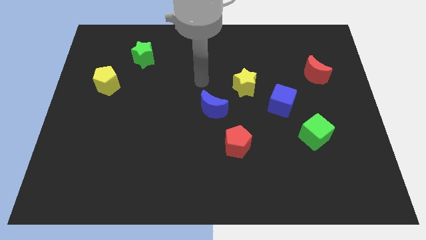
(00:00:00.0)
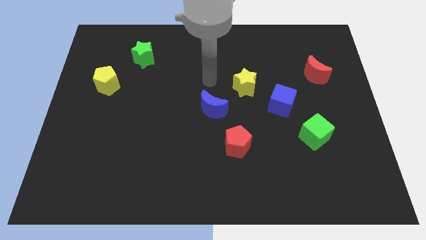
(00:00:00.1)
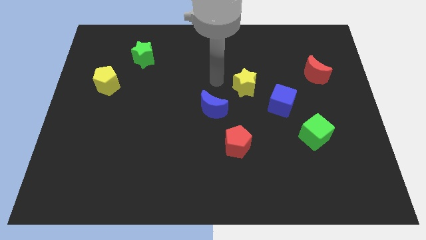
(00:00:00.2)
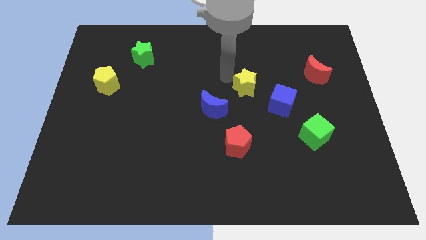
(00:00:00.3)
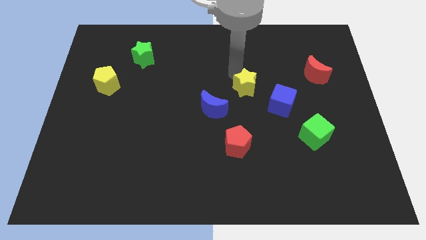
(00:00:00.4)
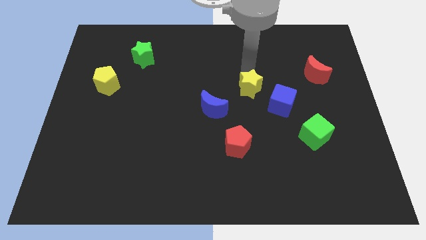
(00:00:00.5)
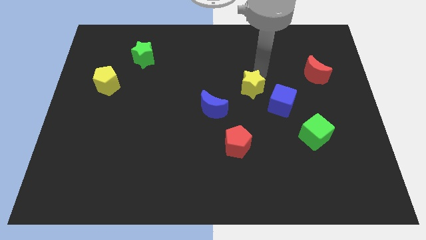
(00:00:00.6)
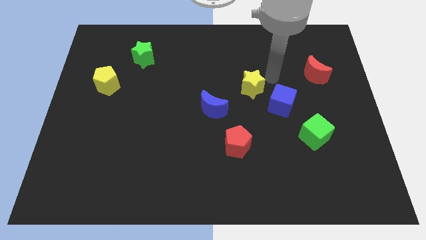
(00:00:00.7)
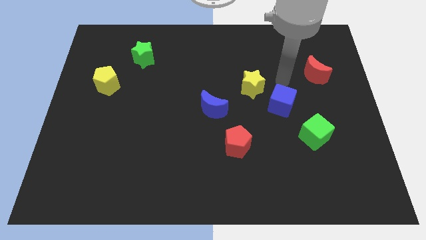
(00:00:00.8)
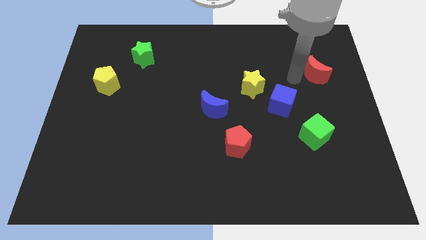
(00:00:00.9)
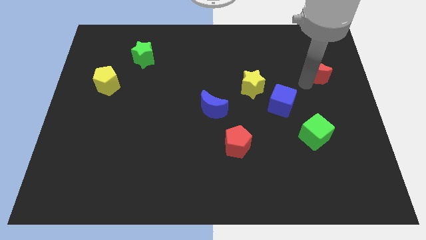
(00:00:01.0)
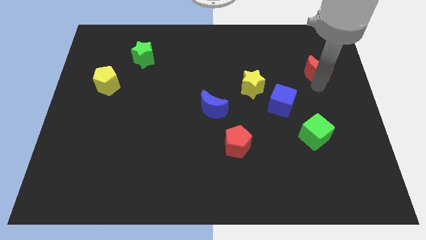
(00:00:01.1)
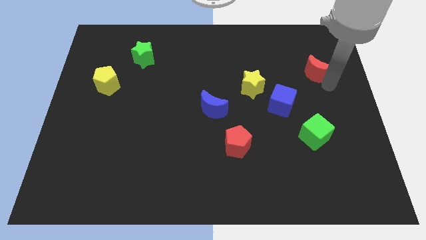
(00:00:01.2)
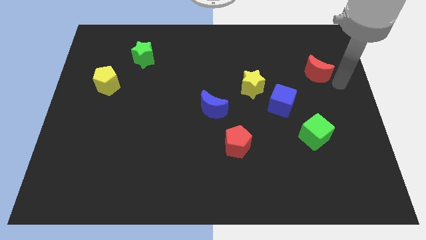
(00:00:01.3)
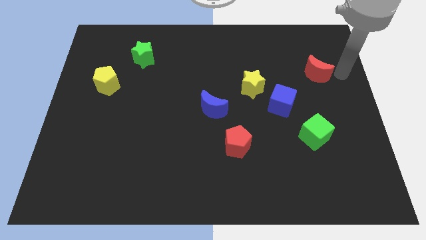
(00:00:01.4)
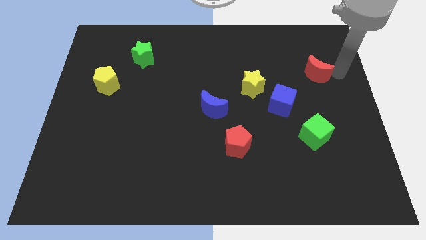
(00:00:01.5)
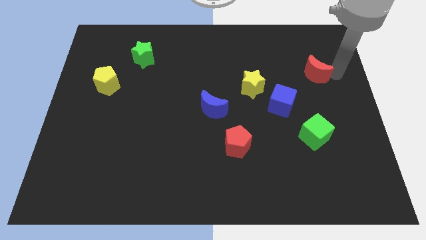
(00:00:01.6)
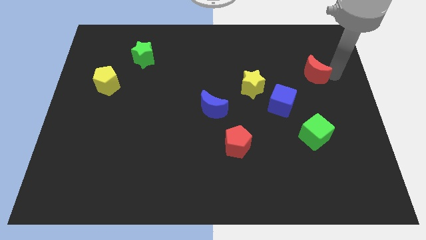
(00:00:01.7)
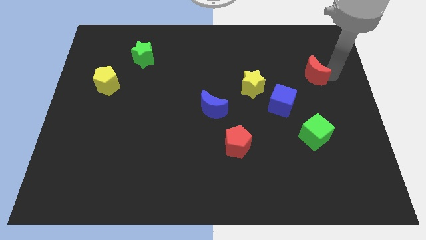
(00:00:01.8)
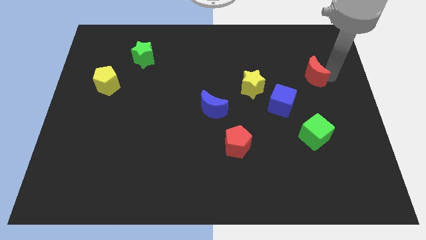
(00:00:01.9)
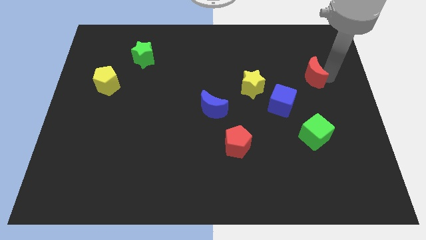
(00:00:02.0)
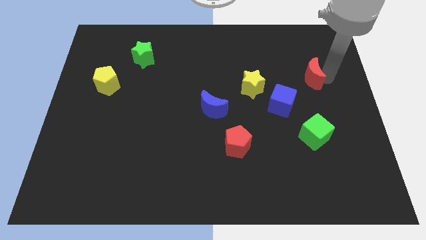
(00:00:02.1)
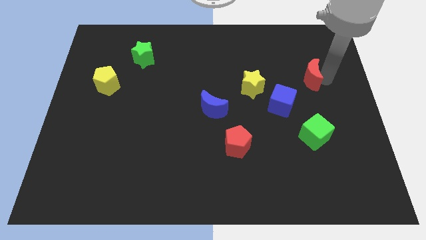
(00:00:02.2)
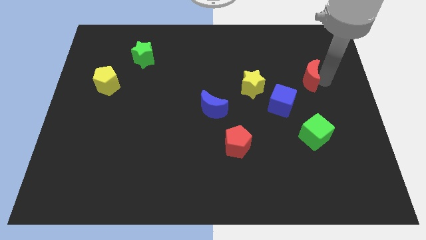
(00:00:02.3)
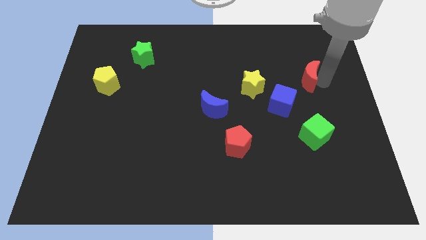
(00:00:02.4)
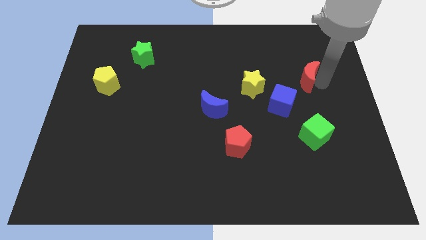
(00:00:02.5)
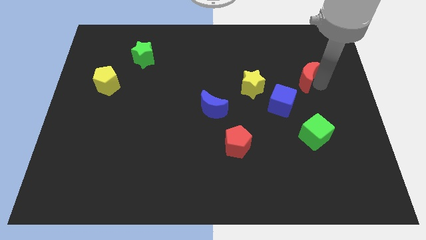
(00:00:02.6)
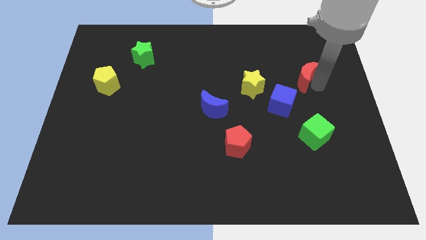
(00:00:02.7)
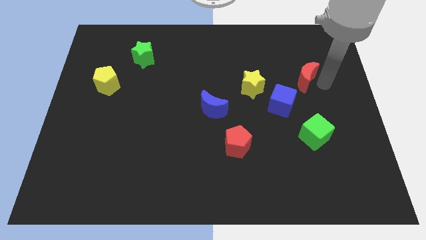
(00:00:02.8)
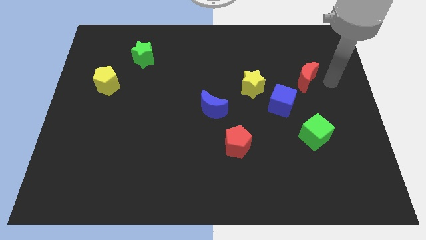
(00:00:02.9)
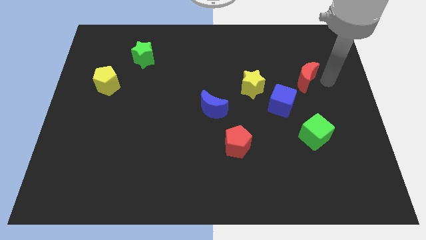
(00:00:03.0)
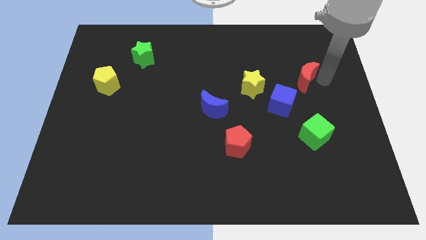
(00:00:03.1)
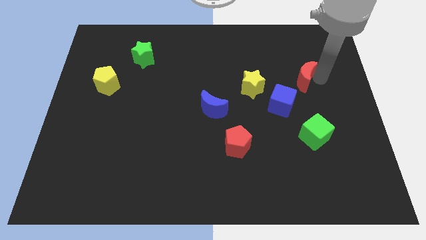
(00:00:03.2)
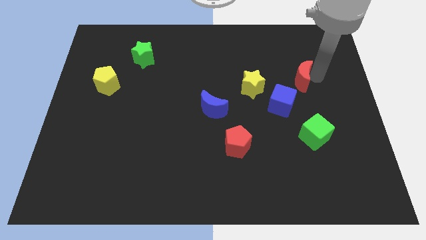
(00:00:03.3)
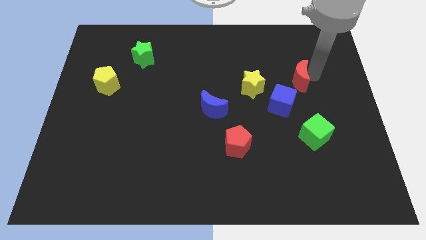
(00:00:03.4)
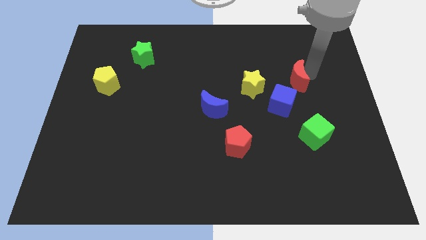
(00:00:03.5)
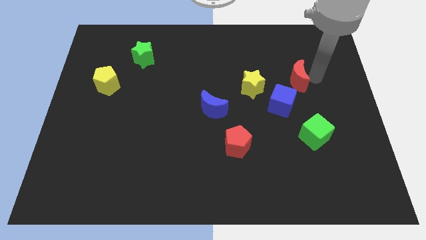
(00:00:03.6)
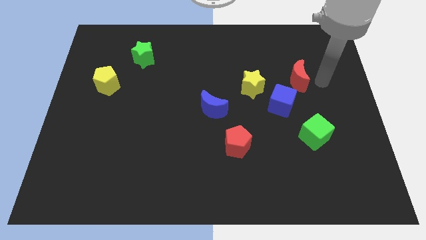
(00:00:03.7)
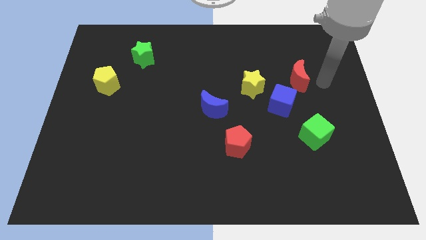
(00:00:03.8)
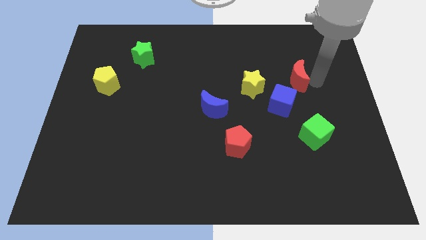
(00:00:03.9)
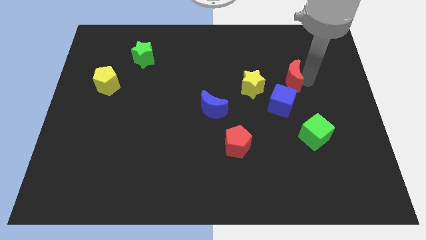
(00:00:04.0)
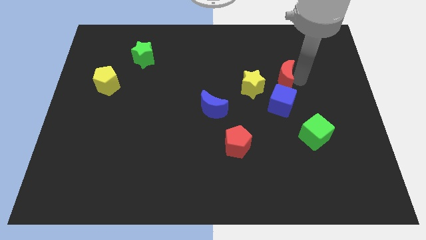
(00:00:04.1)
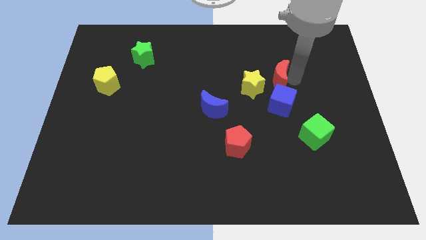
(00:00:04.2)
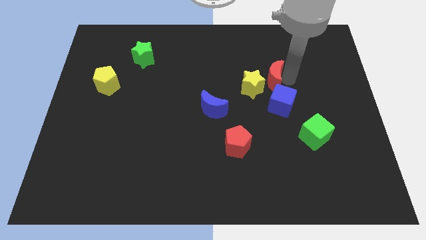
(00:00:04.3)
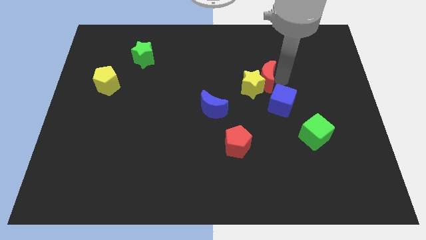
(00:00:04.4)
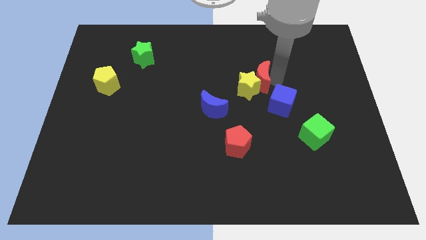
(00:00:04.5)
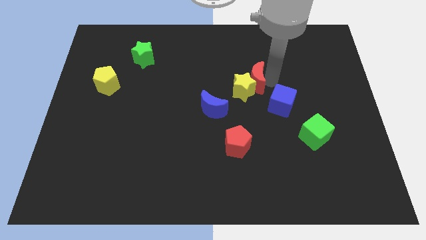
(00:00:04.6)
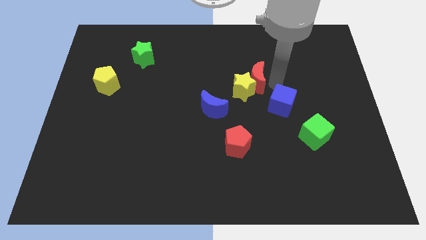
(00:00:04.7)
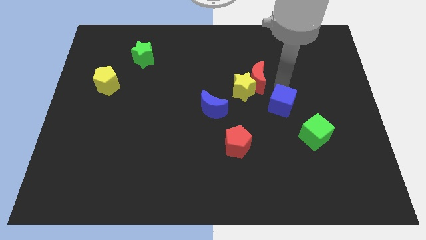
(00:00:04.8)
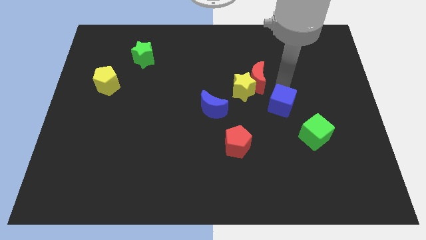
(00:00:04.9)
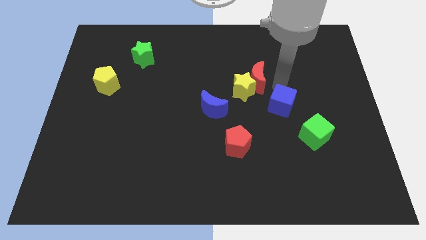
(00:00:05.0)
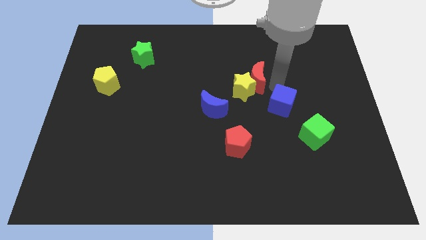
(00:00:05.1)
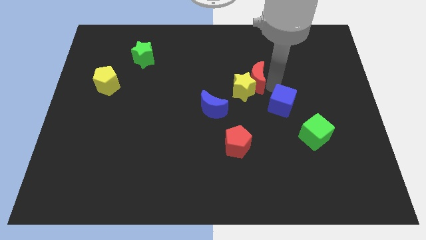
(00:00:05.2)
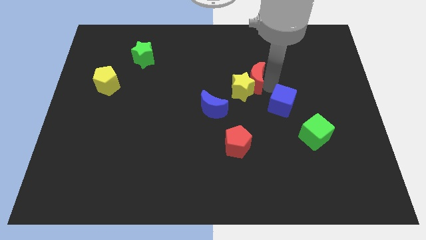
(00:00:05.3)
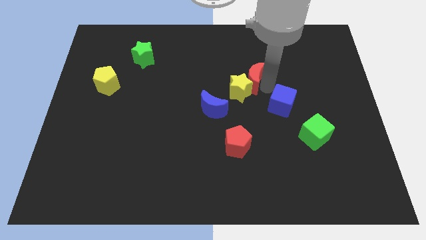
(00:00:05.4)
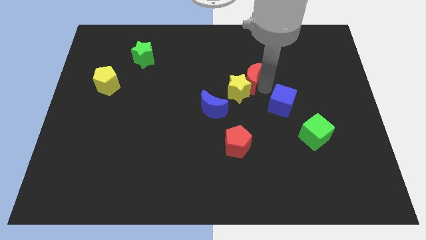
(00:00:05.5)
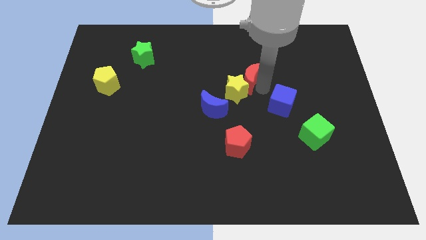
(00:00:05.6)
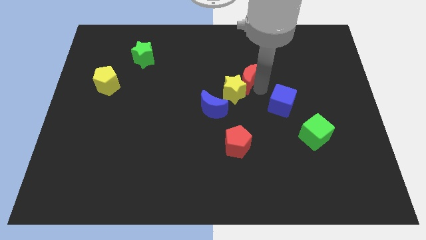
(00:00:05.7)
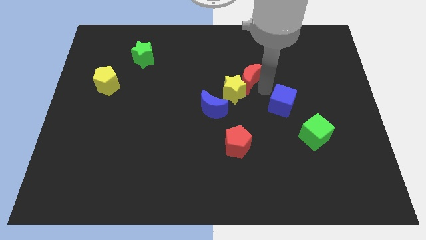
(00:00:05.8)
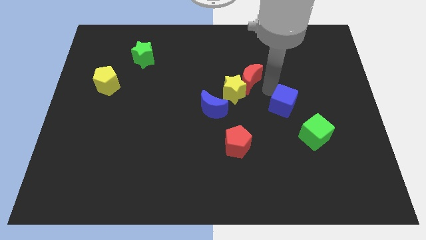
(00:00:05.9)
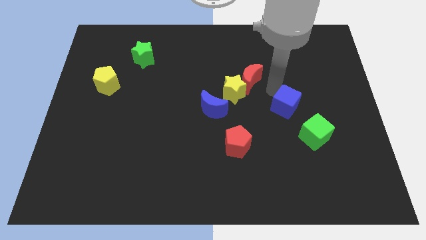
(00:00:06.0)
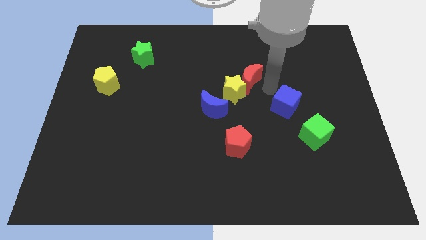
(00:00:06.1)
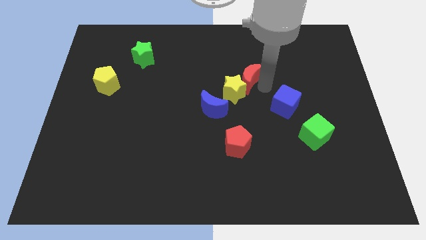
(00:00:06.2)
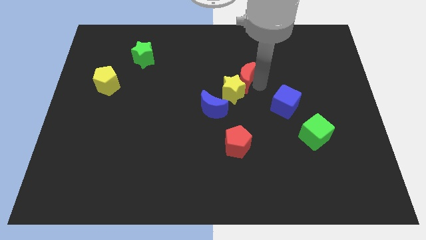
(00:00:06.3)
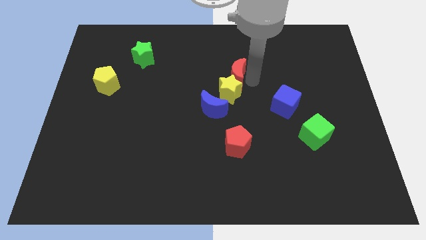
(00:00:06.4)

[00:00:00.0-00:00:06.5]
slide the red moon to the left

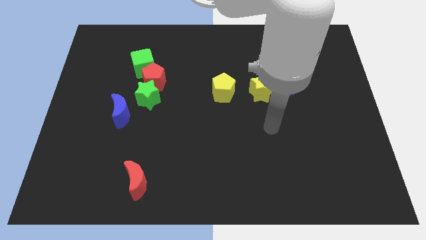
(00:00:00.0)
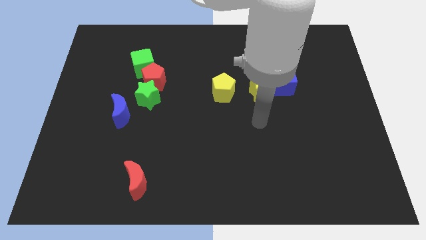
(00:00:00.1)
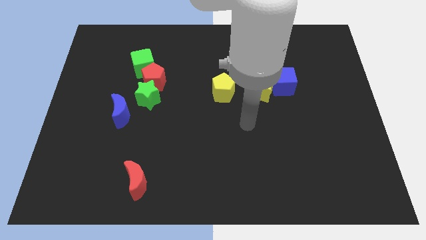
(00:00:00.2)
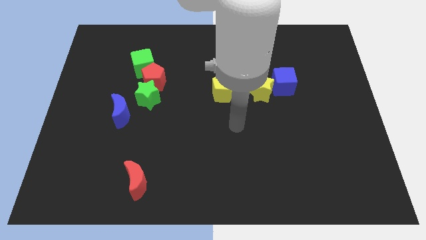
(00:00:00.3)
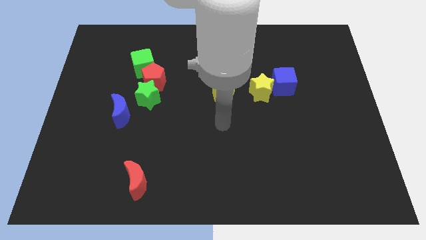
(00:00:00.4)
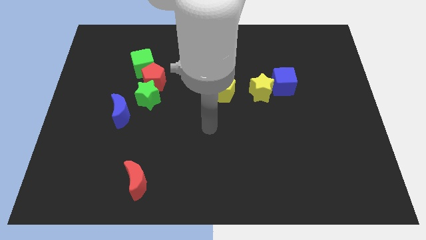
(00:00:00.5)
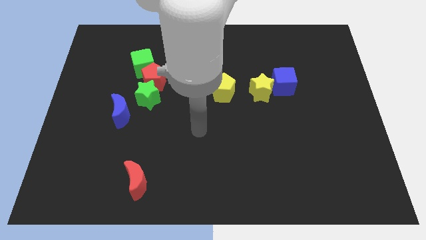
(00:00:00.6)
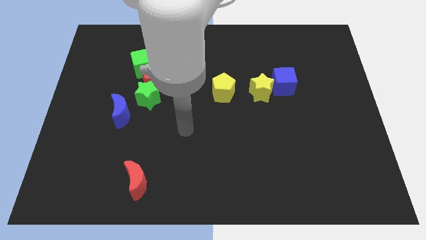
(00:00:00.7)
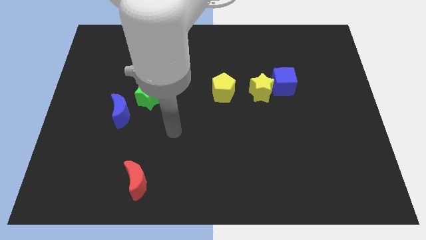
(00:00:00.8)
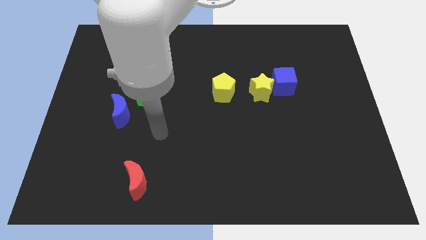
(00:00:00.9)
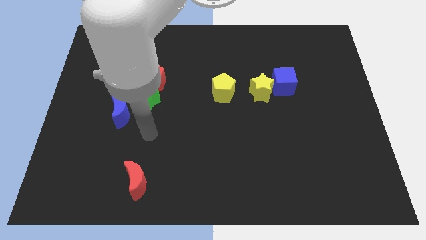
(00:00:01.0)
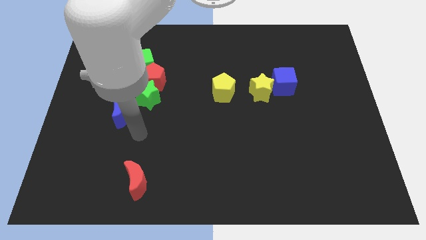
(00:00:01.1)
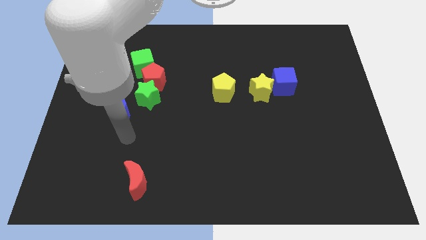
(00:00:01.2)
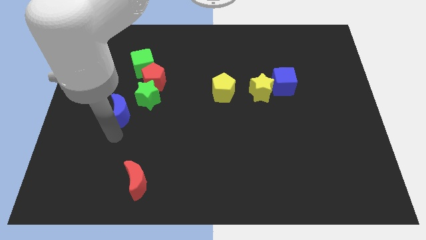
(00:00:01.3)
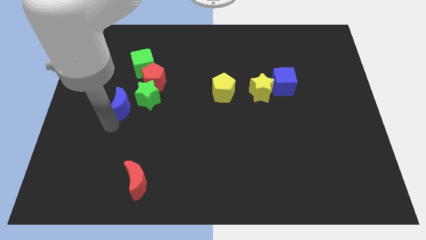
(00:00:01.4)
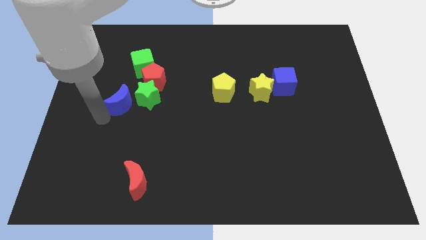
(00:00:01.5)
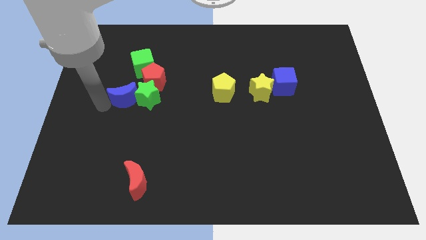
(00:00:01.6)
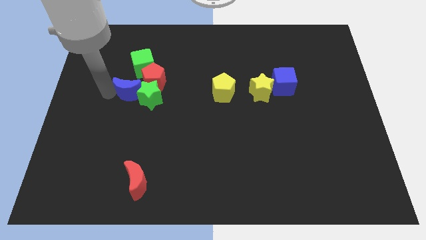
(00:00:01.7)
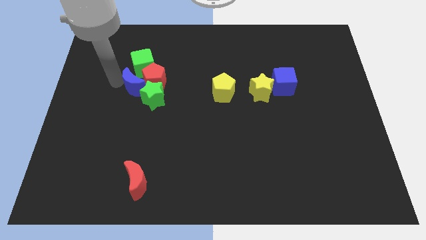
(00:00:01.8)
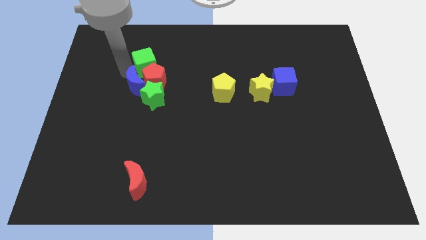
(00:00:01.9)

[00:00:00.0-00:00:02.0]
move the blue moon diagonally upwards and to the right a little
